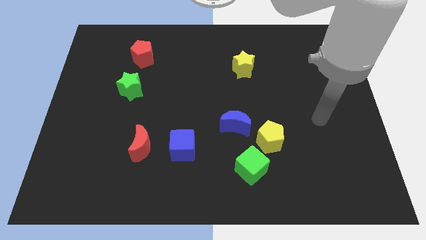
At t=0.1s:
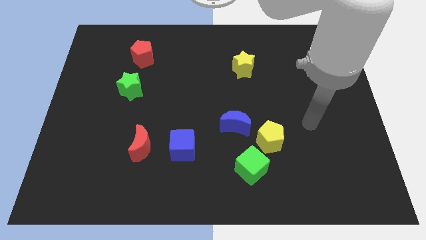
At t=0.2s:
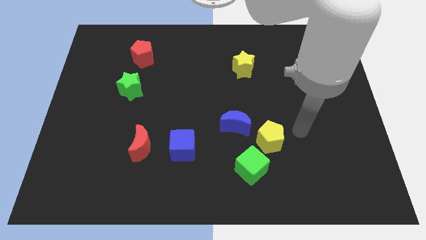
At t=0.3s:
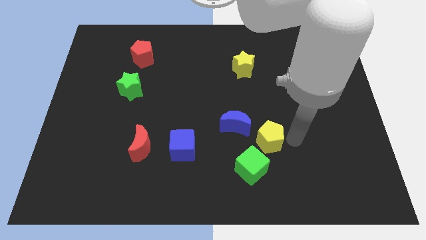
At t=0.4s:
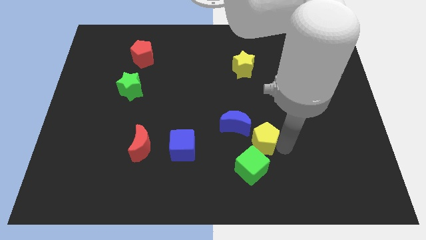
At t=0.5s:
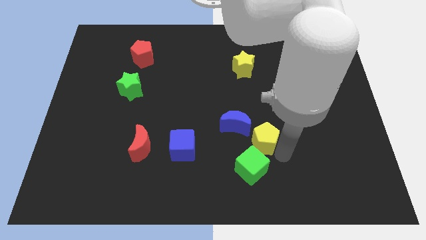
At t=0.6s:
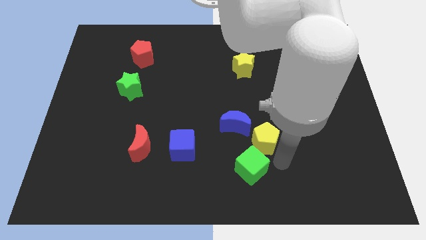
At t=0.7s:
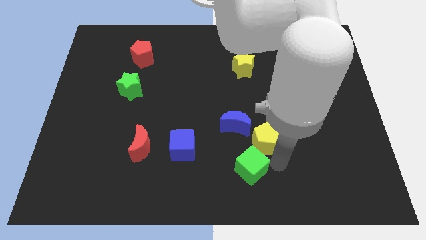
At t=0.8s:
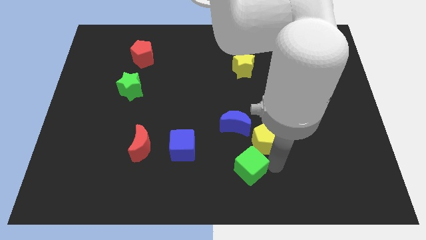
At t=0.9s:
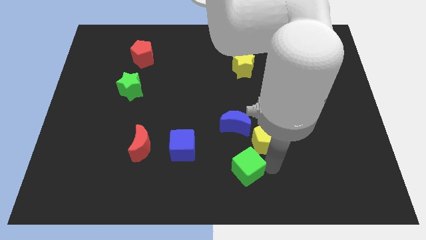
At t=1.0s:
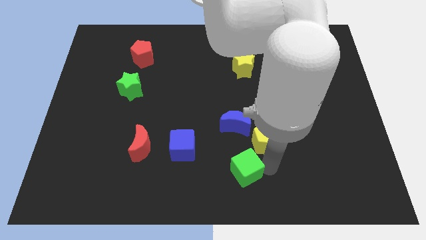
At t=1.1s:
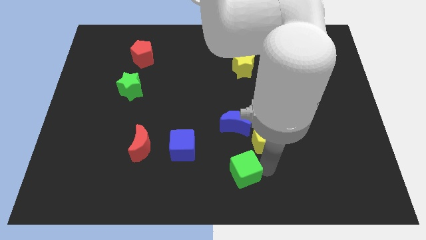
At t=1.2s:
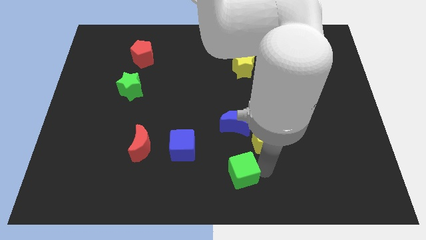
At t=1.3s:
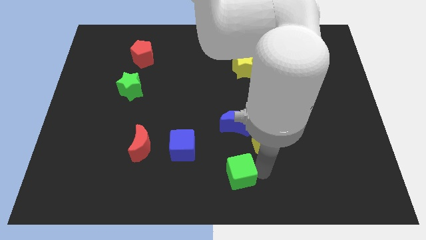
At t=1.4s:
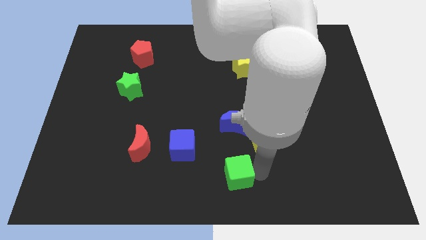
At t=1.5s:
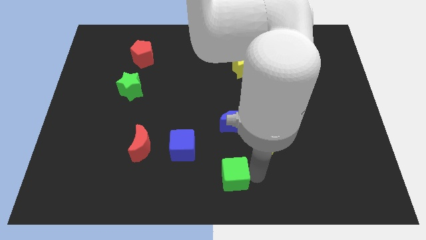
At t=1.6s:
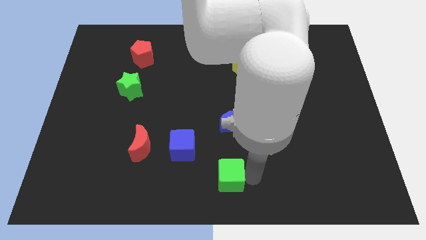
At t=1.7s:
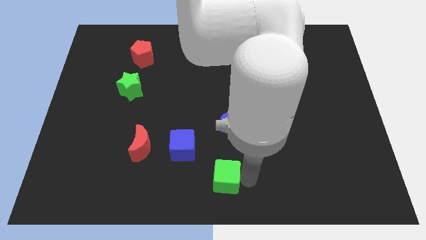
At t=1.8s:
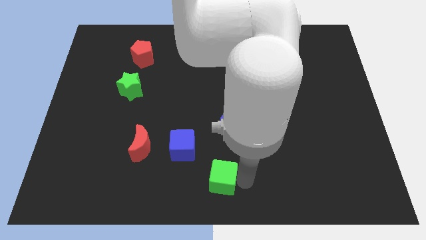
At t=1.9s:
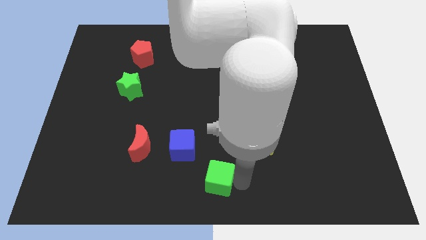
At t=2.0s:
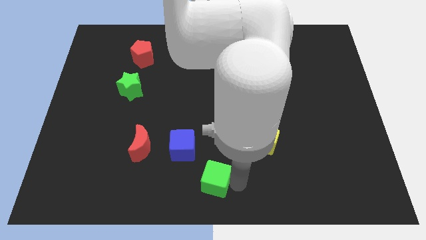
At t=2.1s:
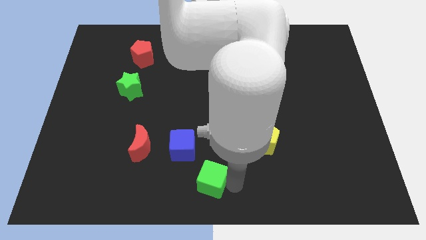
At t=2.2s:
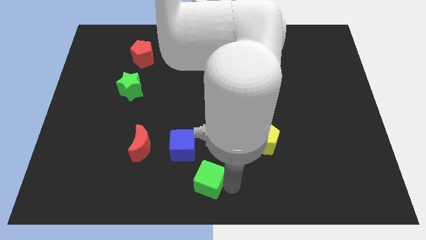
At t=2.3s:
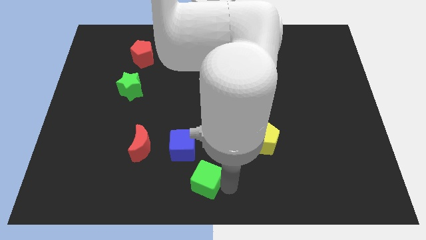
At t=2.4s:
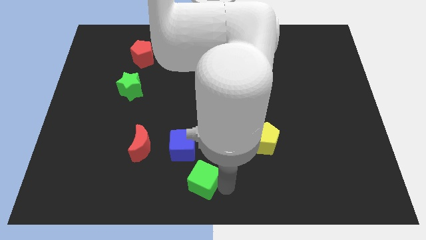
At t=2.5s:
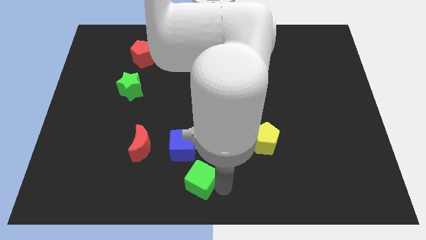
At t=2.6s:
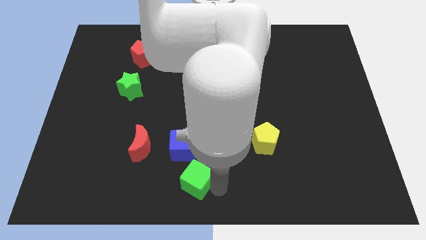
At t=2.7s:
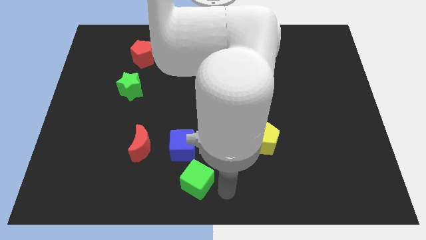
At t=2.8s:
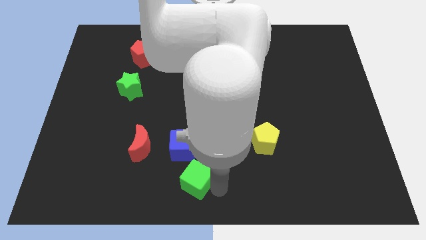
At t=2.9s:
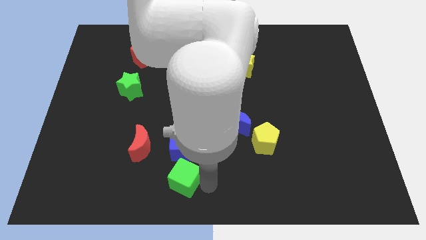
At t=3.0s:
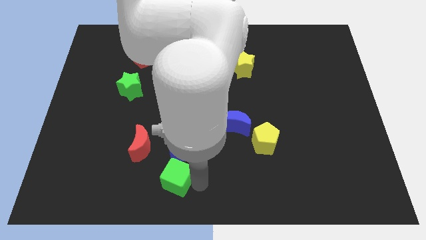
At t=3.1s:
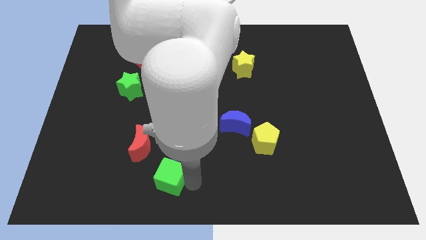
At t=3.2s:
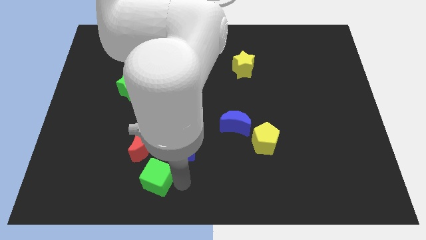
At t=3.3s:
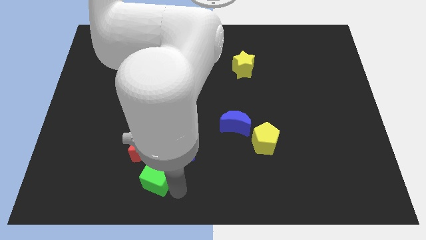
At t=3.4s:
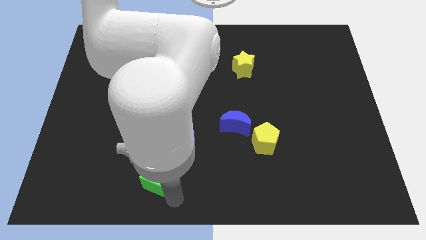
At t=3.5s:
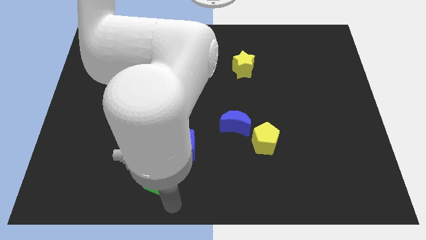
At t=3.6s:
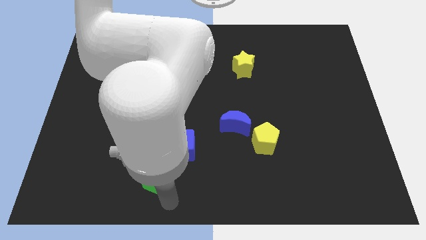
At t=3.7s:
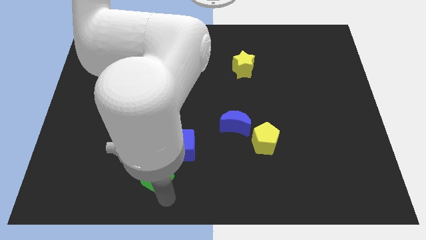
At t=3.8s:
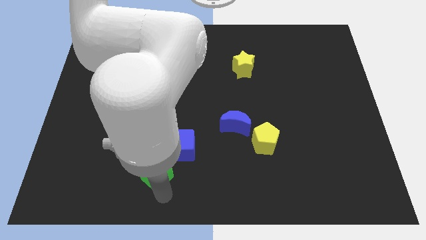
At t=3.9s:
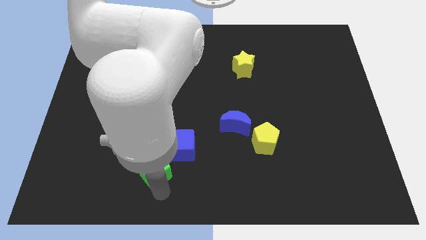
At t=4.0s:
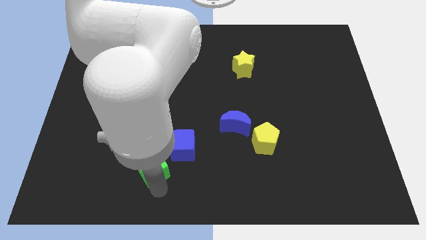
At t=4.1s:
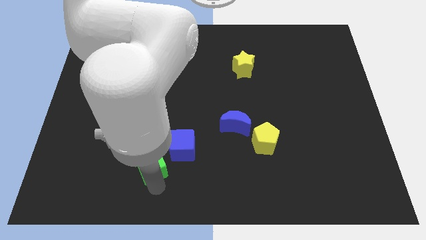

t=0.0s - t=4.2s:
move the green cube close to the red moon

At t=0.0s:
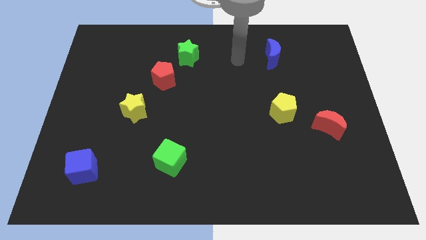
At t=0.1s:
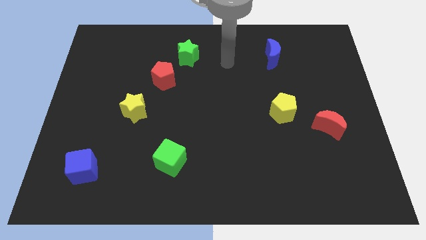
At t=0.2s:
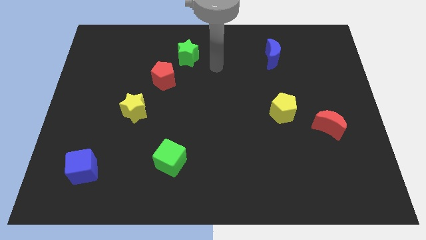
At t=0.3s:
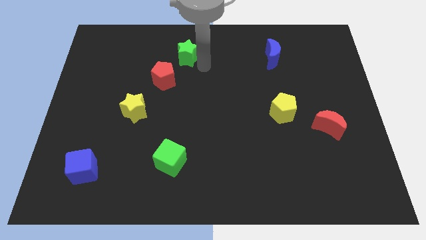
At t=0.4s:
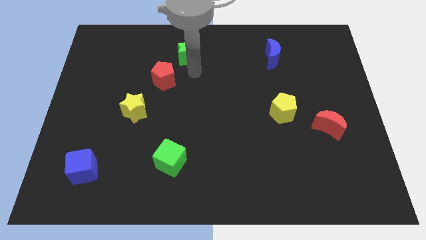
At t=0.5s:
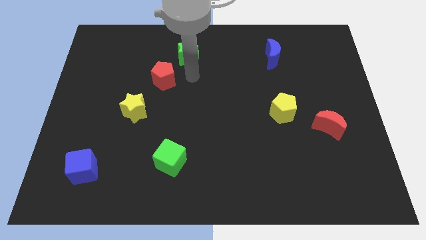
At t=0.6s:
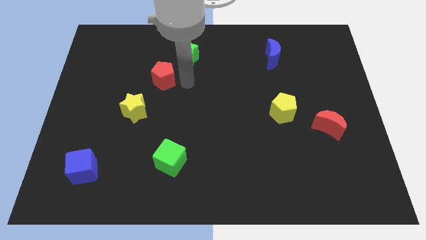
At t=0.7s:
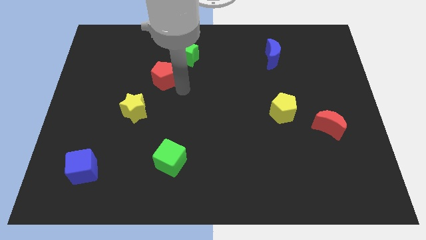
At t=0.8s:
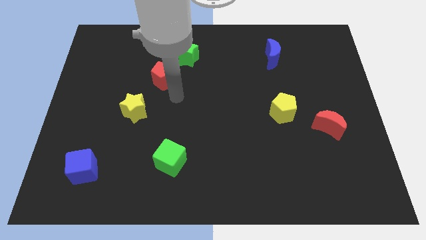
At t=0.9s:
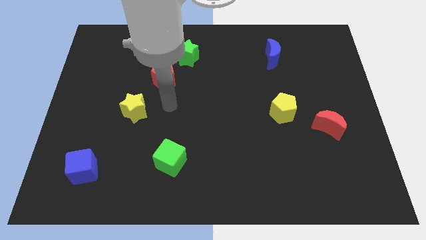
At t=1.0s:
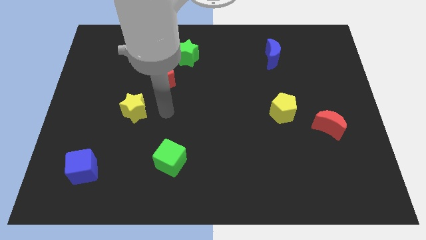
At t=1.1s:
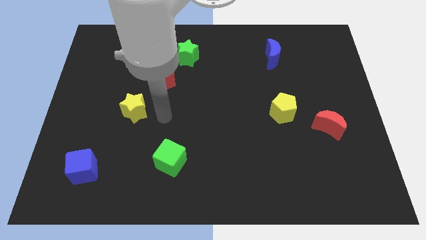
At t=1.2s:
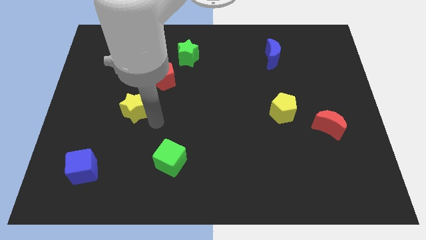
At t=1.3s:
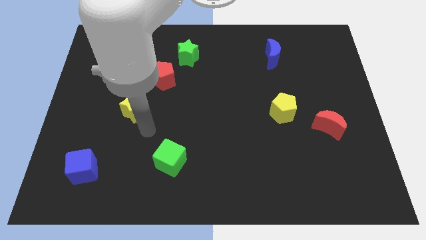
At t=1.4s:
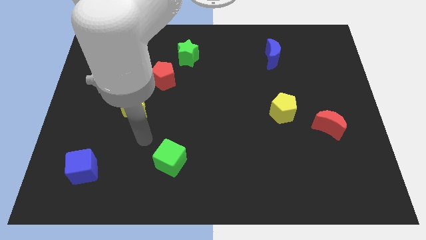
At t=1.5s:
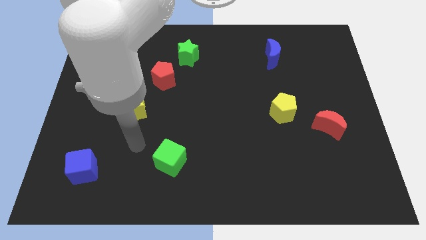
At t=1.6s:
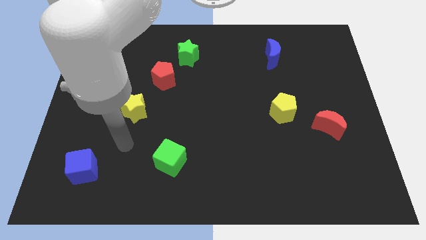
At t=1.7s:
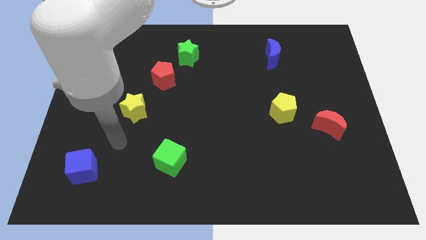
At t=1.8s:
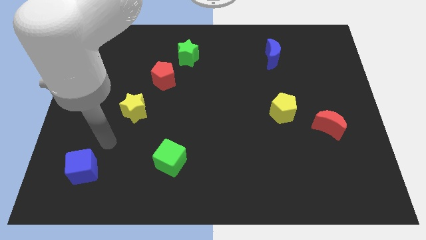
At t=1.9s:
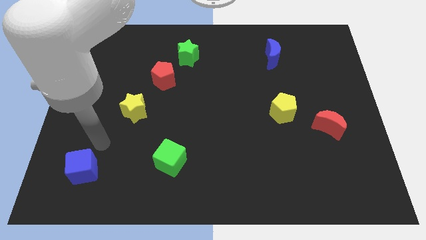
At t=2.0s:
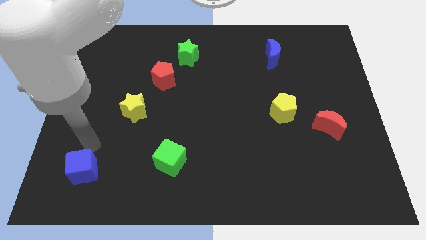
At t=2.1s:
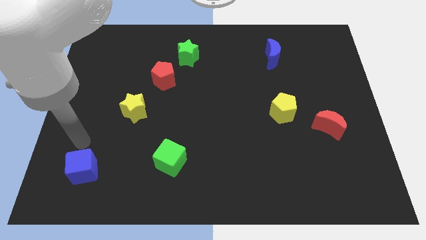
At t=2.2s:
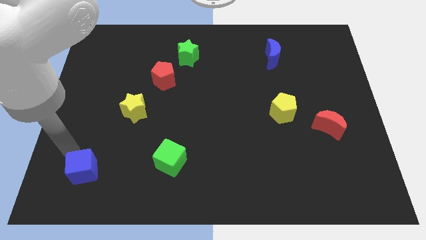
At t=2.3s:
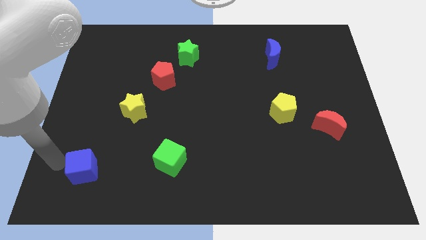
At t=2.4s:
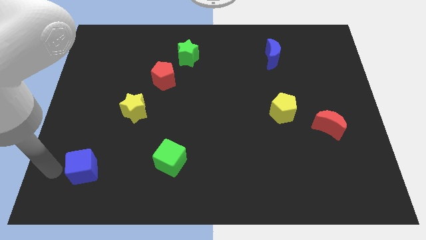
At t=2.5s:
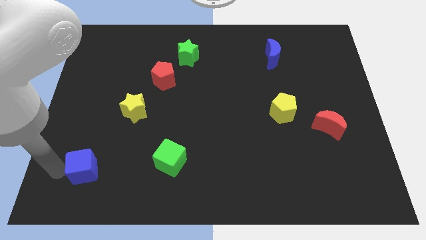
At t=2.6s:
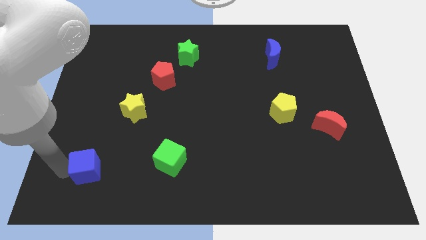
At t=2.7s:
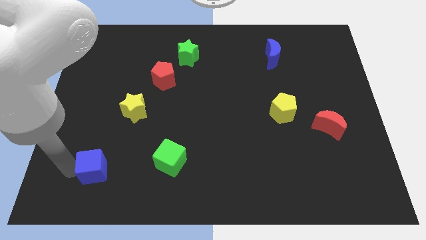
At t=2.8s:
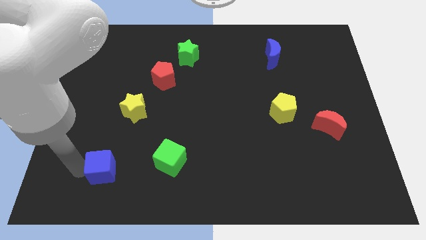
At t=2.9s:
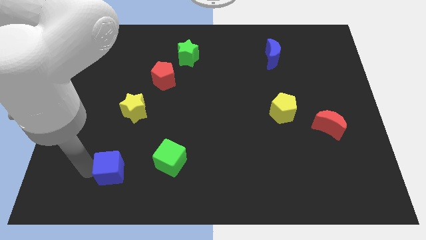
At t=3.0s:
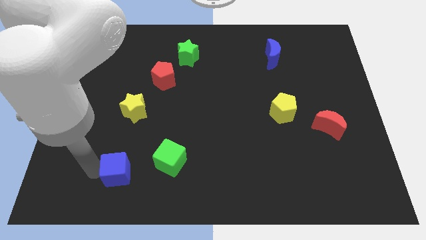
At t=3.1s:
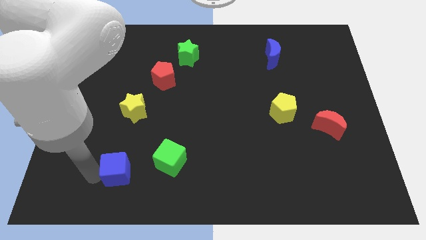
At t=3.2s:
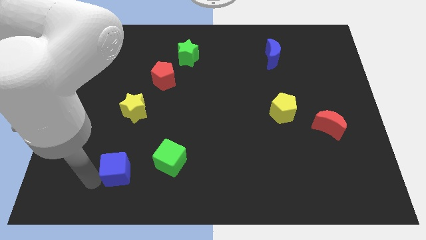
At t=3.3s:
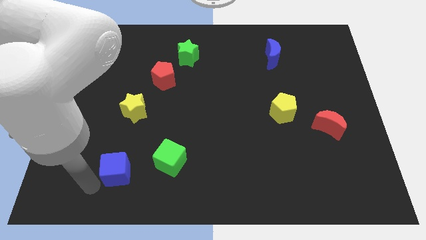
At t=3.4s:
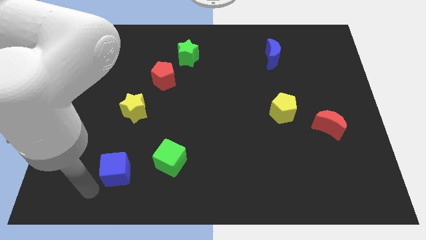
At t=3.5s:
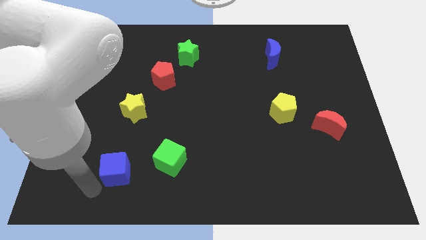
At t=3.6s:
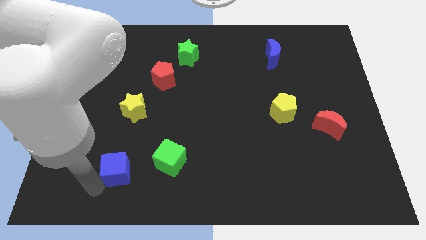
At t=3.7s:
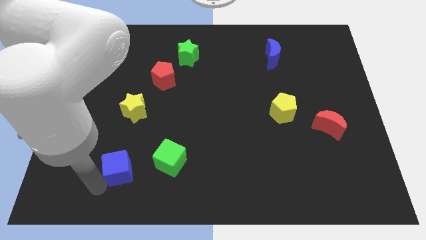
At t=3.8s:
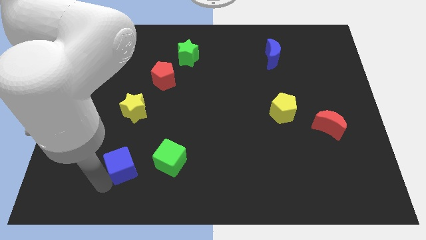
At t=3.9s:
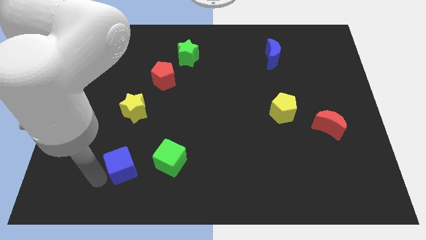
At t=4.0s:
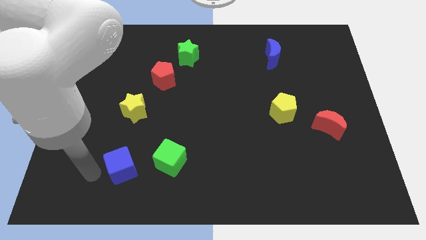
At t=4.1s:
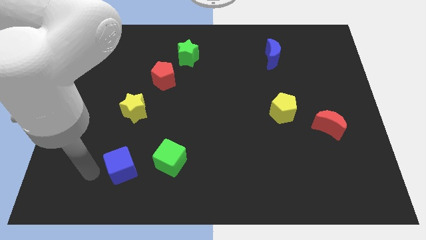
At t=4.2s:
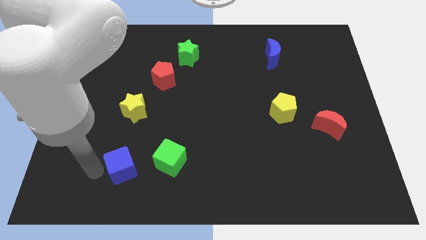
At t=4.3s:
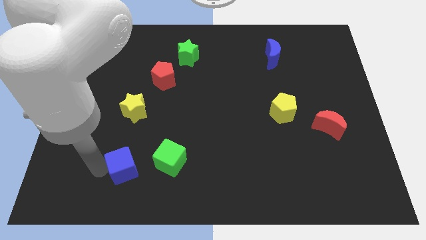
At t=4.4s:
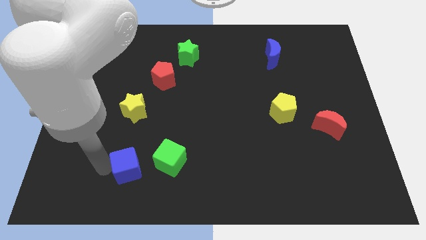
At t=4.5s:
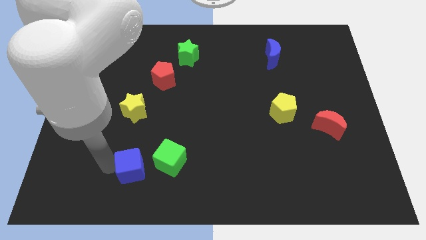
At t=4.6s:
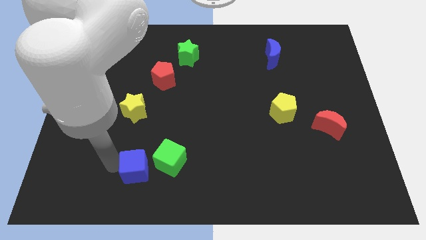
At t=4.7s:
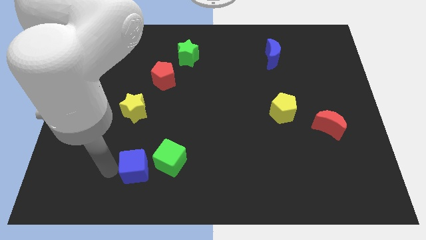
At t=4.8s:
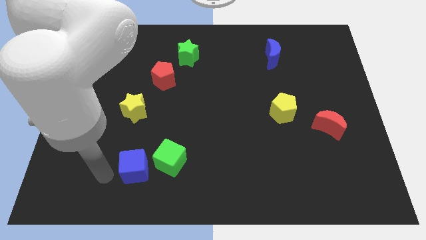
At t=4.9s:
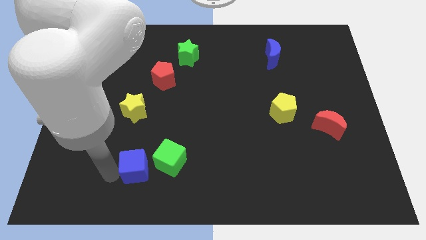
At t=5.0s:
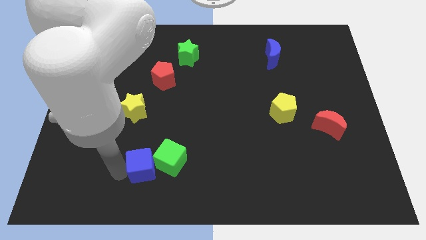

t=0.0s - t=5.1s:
push the blue cube towards the green cube
